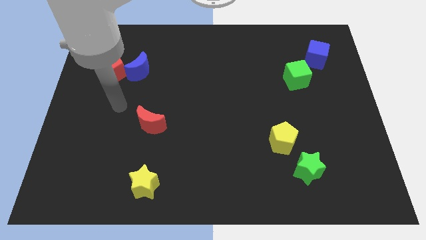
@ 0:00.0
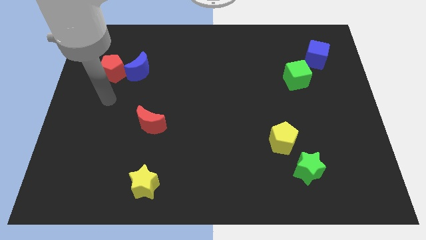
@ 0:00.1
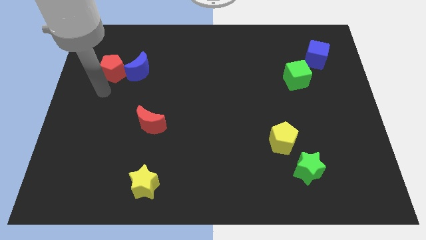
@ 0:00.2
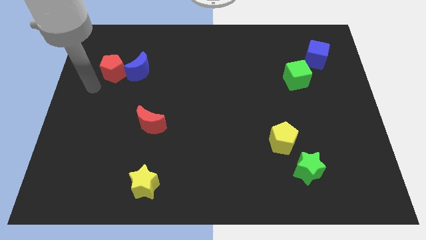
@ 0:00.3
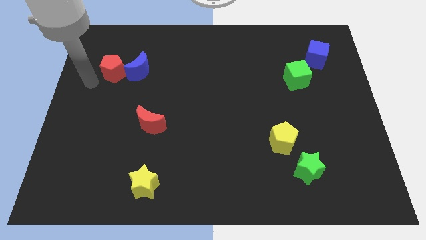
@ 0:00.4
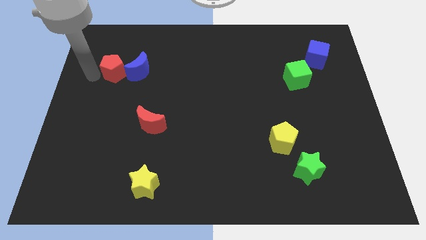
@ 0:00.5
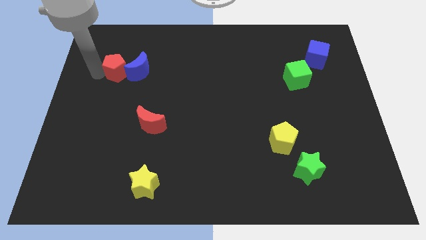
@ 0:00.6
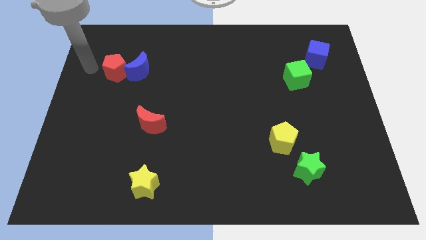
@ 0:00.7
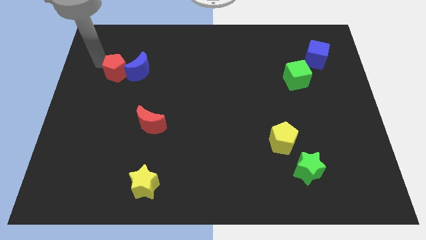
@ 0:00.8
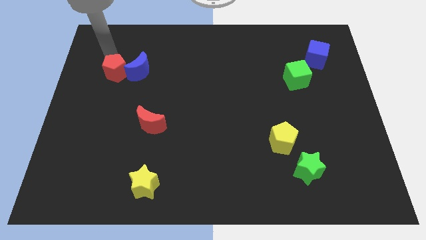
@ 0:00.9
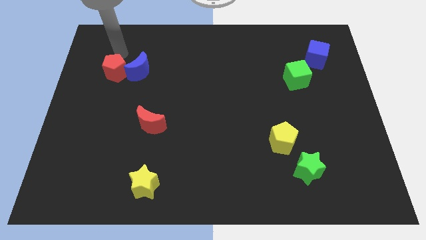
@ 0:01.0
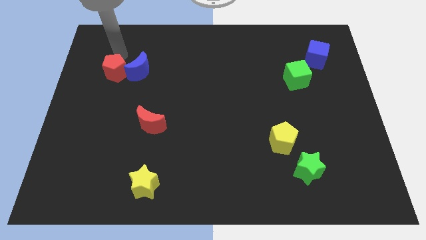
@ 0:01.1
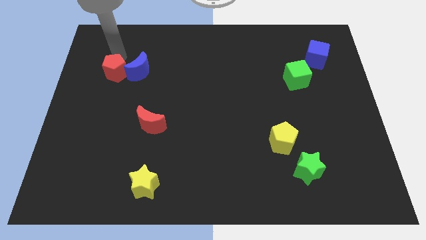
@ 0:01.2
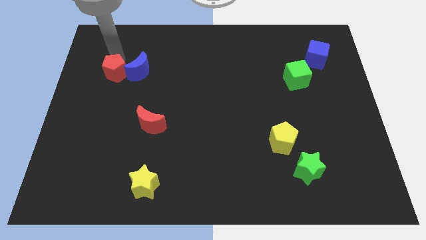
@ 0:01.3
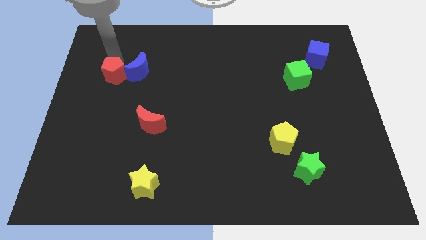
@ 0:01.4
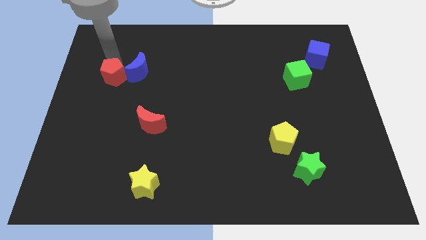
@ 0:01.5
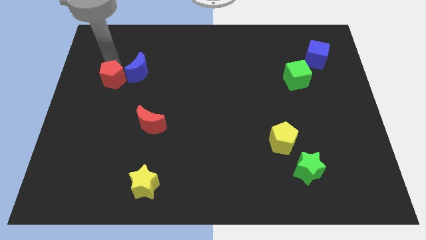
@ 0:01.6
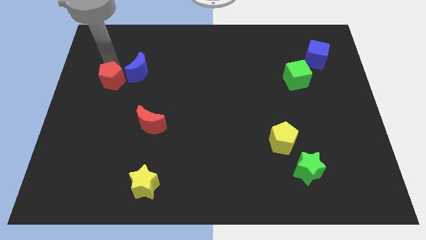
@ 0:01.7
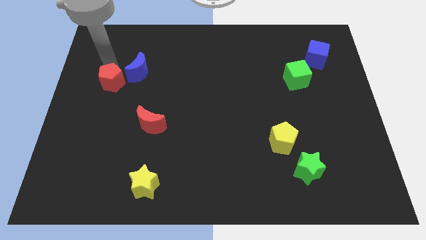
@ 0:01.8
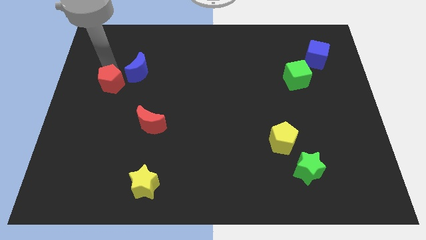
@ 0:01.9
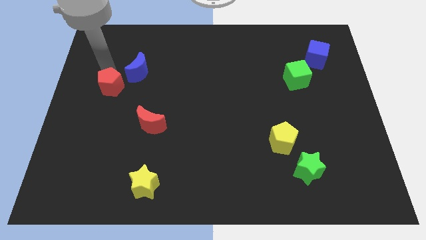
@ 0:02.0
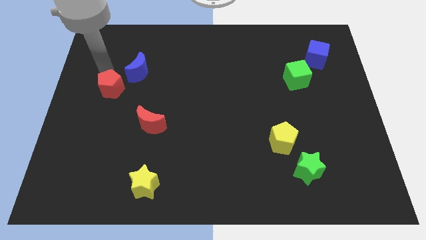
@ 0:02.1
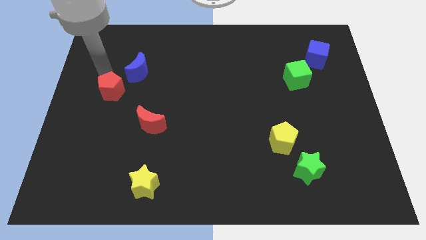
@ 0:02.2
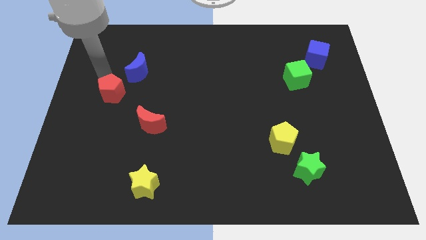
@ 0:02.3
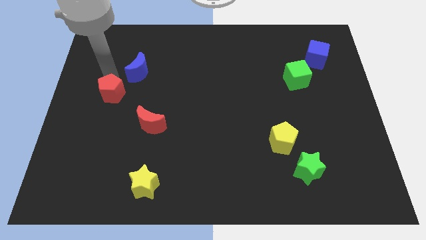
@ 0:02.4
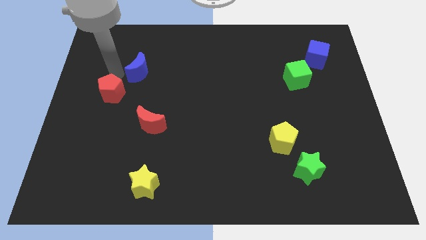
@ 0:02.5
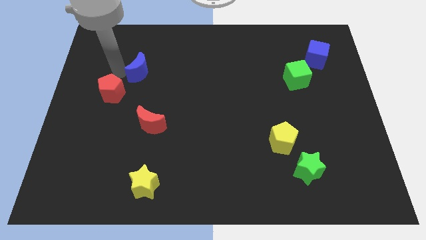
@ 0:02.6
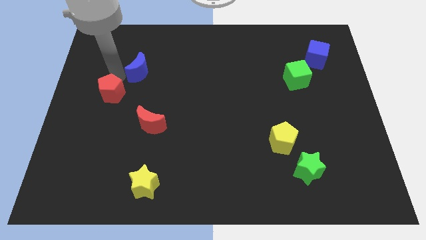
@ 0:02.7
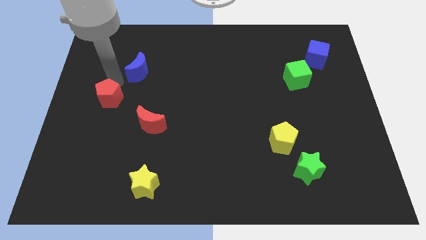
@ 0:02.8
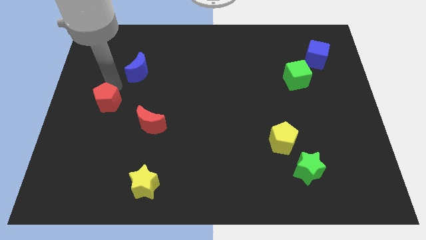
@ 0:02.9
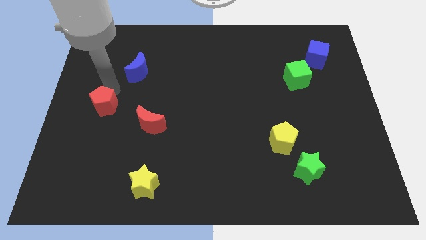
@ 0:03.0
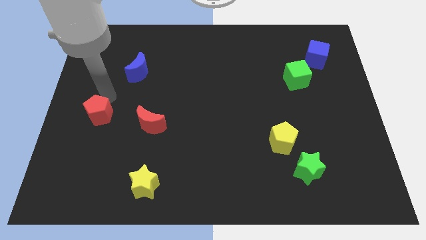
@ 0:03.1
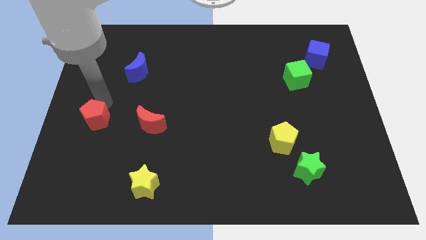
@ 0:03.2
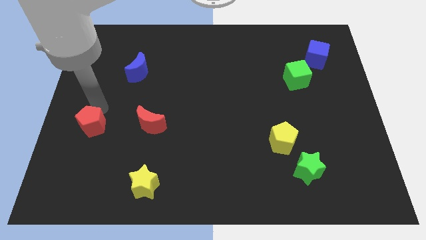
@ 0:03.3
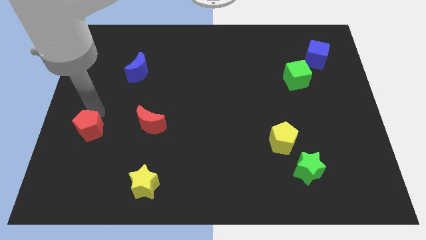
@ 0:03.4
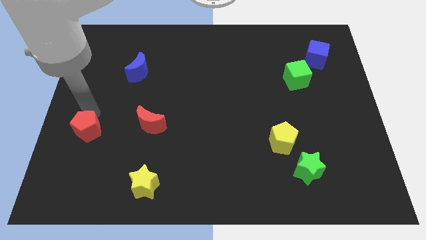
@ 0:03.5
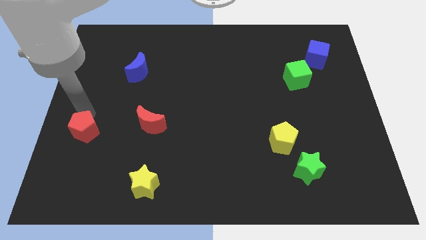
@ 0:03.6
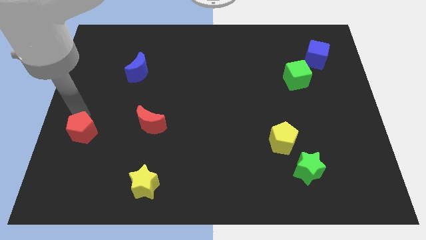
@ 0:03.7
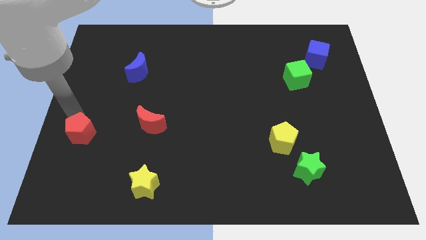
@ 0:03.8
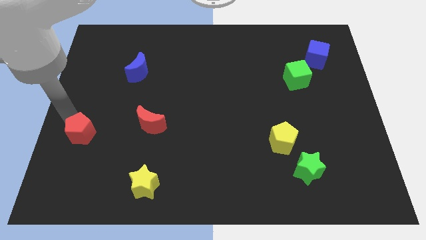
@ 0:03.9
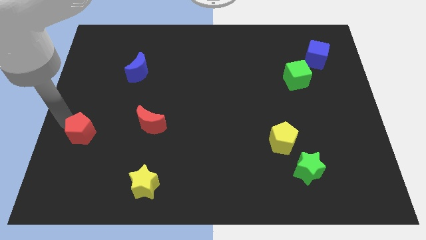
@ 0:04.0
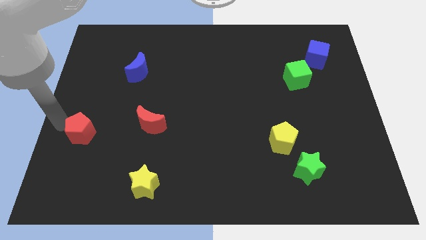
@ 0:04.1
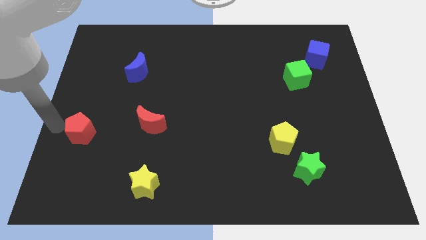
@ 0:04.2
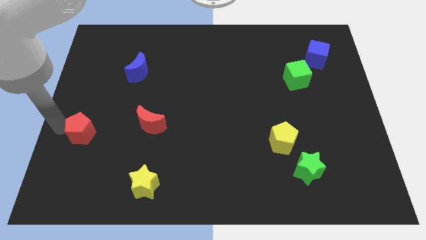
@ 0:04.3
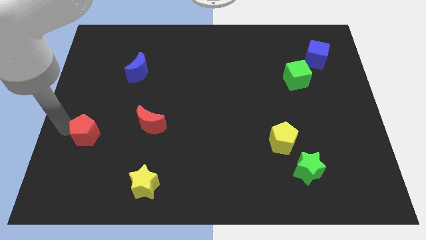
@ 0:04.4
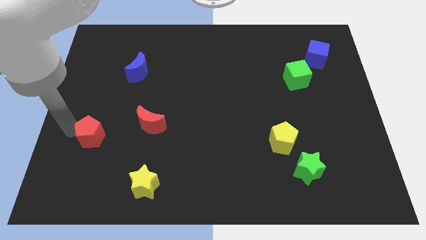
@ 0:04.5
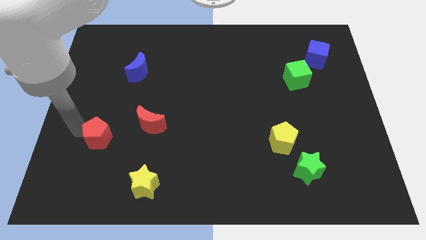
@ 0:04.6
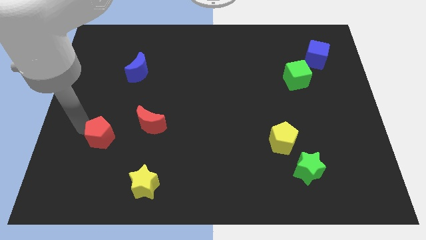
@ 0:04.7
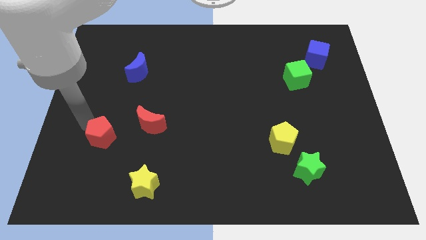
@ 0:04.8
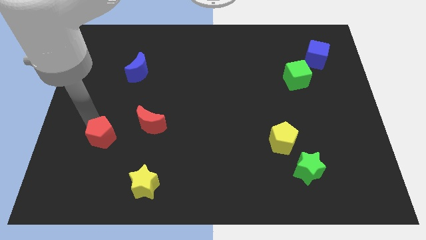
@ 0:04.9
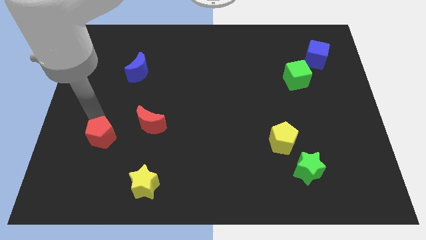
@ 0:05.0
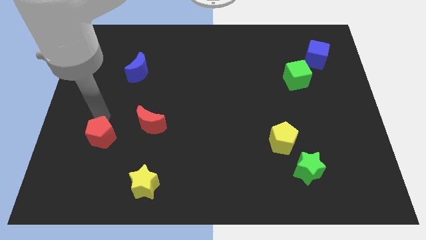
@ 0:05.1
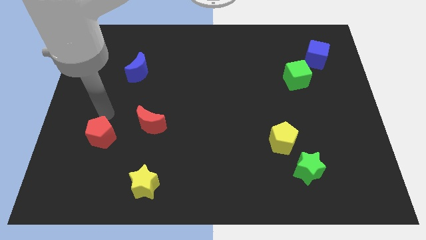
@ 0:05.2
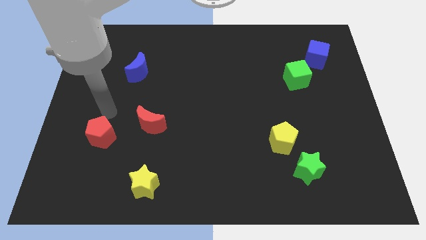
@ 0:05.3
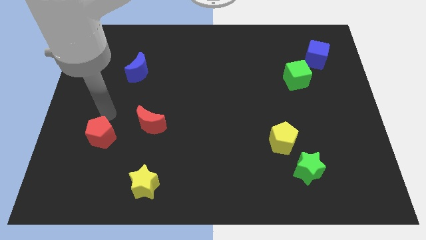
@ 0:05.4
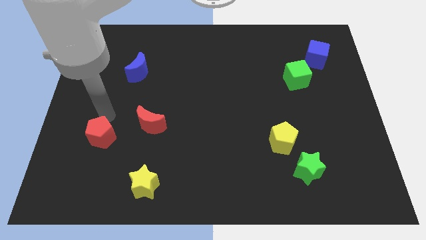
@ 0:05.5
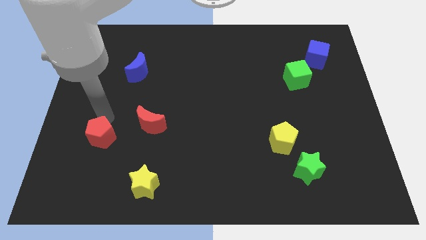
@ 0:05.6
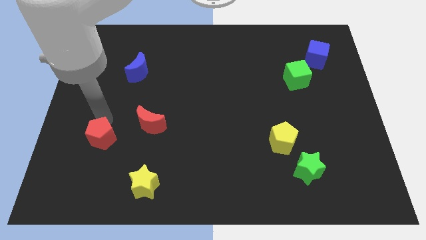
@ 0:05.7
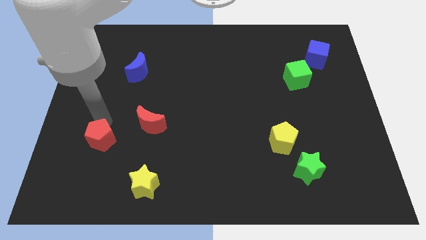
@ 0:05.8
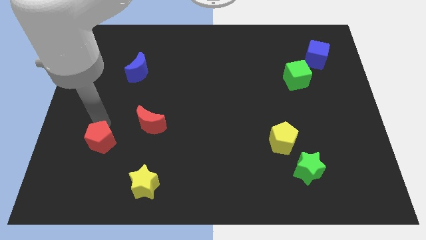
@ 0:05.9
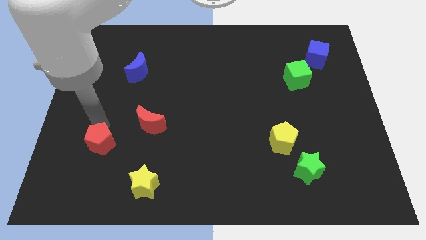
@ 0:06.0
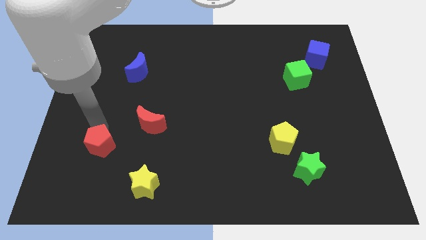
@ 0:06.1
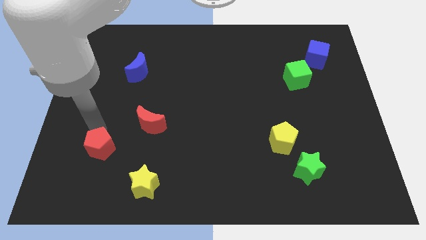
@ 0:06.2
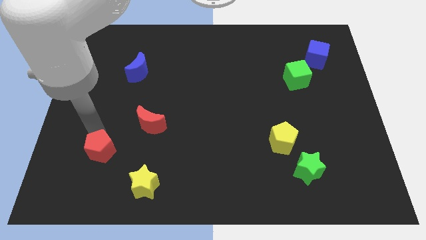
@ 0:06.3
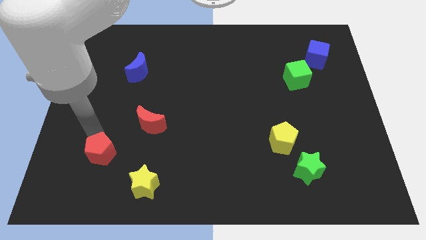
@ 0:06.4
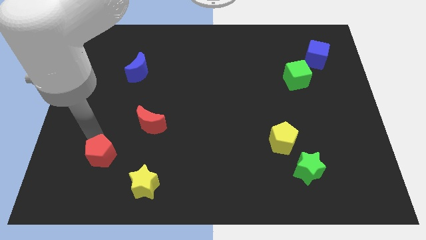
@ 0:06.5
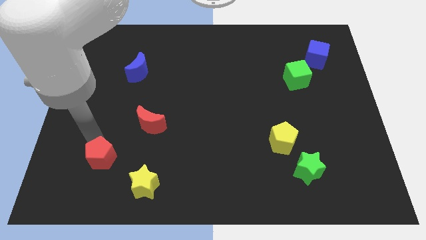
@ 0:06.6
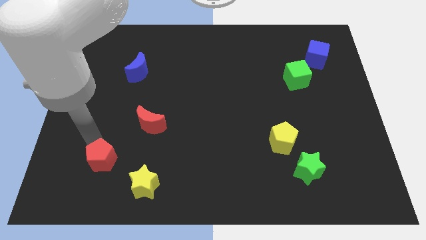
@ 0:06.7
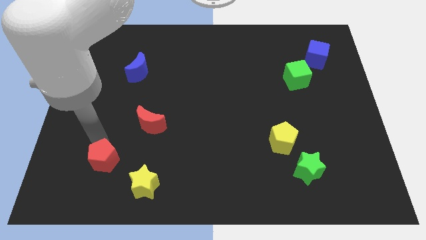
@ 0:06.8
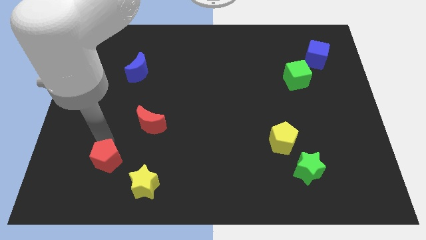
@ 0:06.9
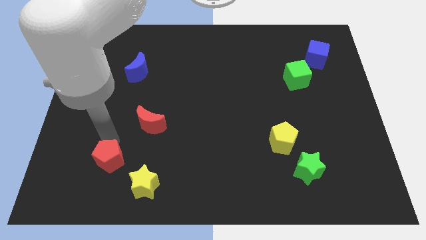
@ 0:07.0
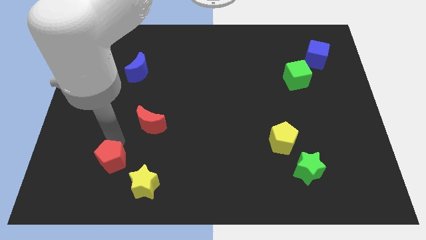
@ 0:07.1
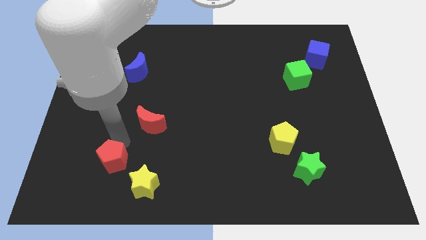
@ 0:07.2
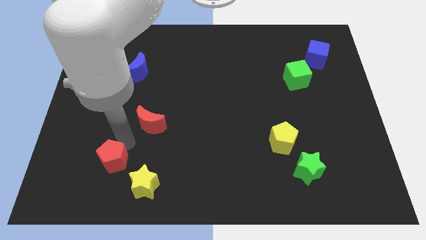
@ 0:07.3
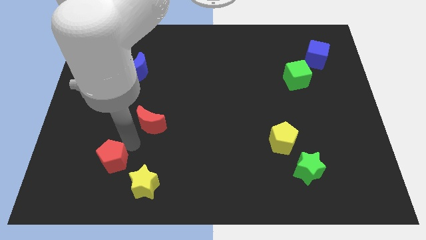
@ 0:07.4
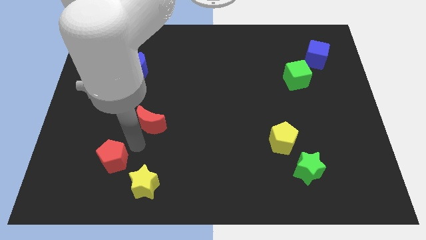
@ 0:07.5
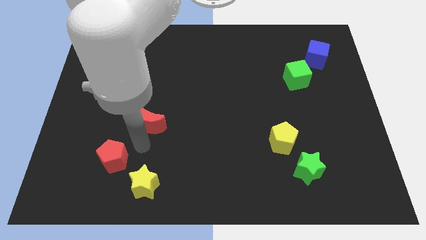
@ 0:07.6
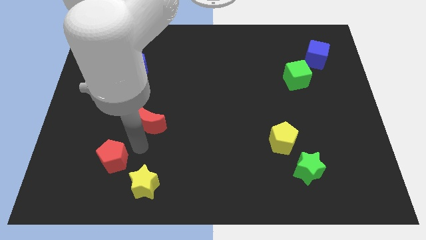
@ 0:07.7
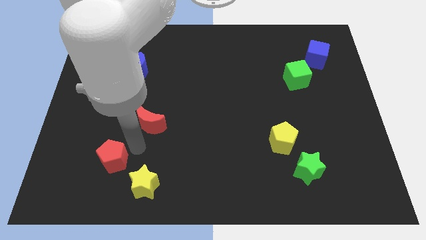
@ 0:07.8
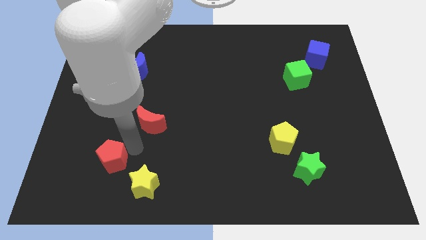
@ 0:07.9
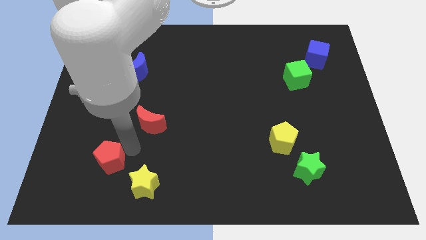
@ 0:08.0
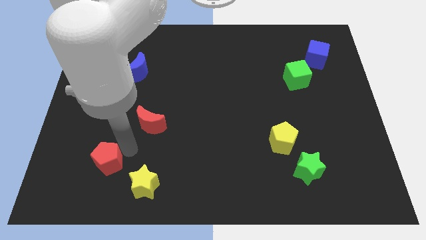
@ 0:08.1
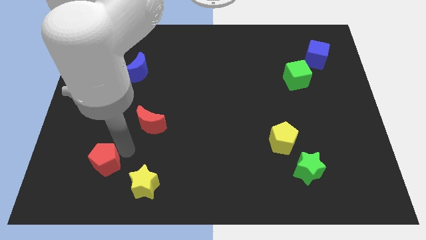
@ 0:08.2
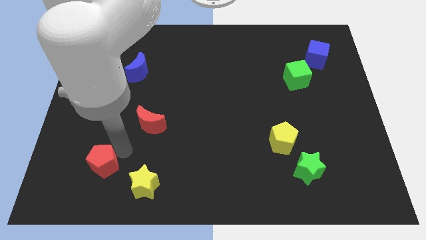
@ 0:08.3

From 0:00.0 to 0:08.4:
put the red pentagon just left of the yellow star
